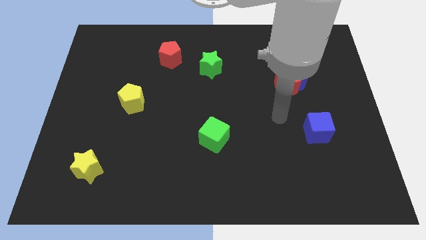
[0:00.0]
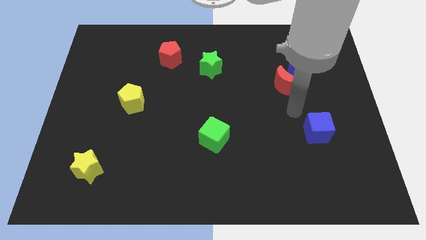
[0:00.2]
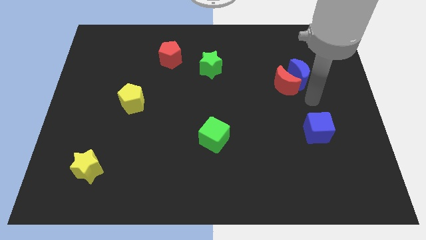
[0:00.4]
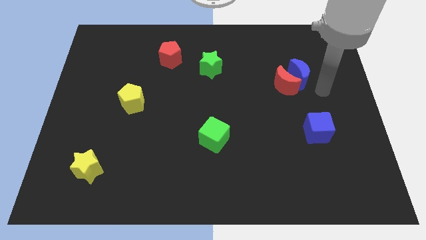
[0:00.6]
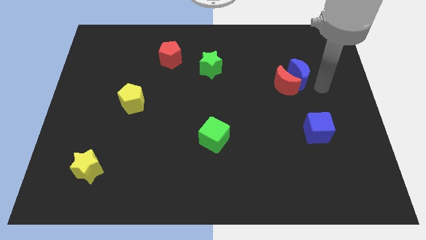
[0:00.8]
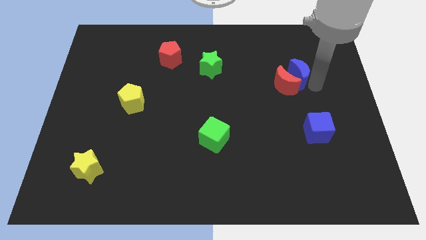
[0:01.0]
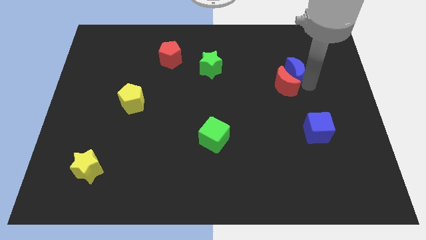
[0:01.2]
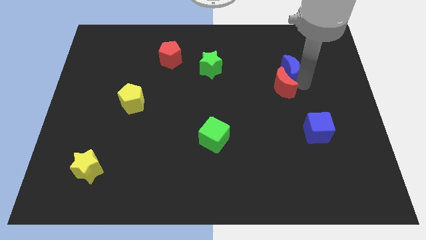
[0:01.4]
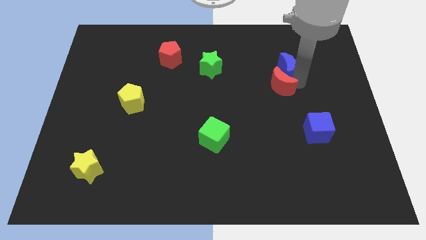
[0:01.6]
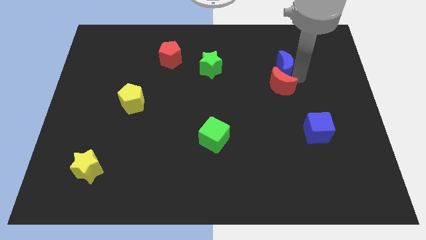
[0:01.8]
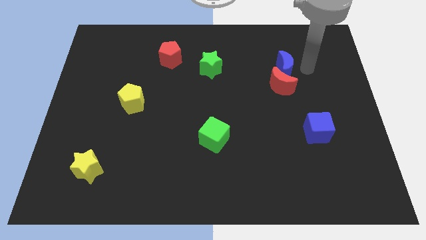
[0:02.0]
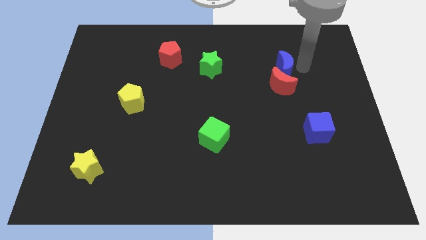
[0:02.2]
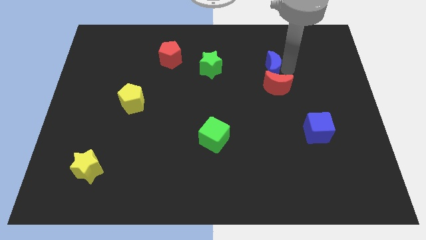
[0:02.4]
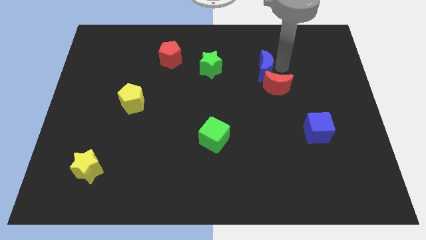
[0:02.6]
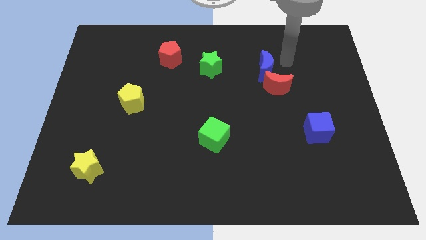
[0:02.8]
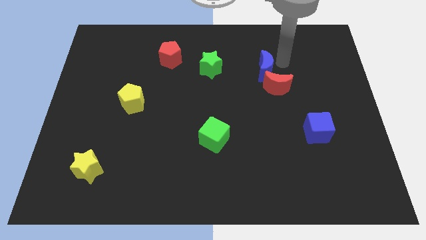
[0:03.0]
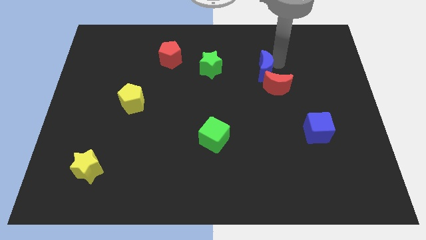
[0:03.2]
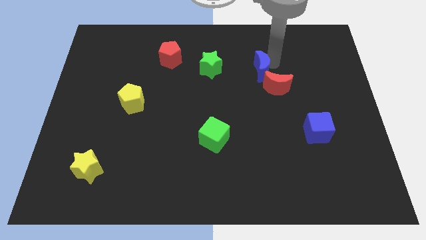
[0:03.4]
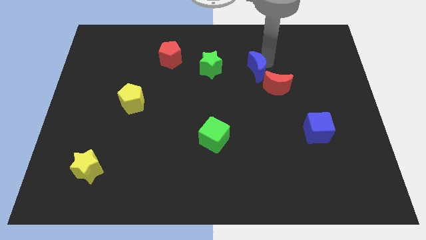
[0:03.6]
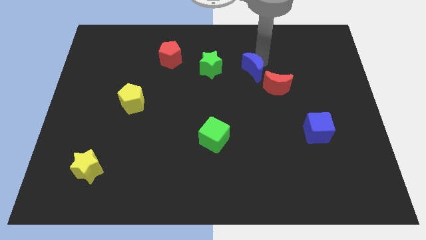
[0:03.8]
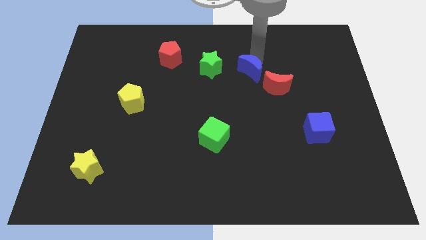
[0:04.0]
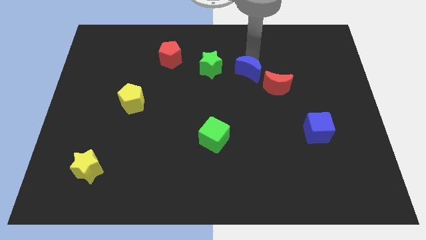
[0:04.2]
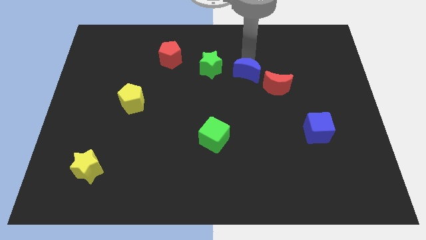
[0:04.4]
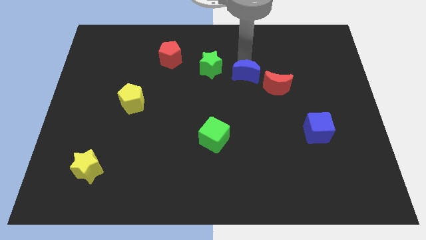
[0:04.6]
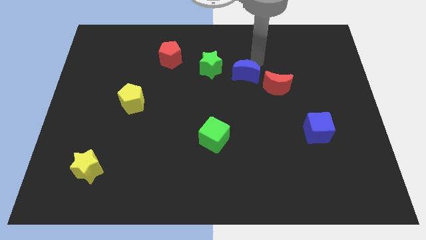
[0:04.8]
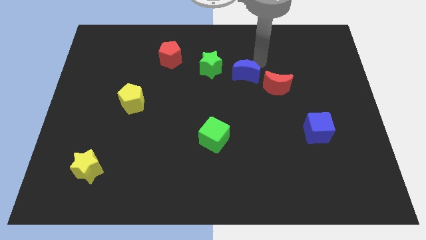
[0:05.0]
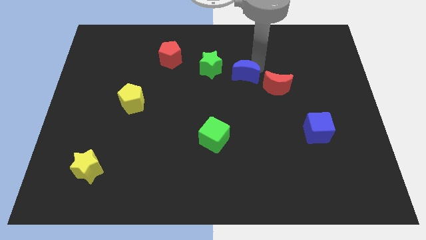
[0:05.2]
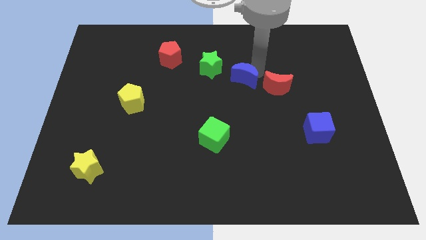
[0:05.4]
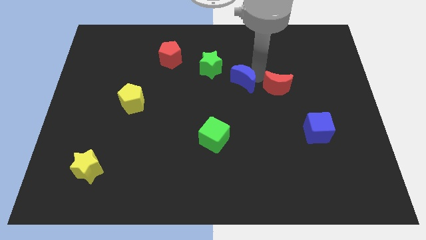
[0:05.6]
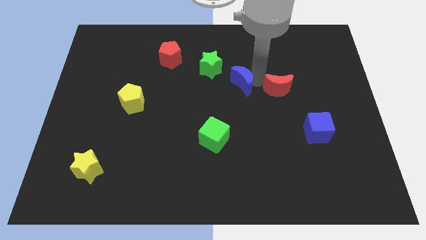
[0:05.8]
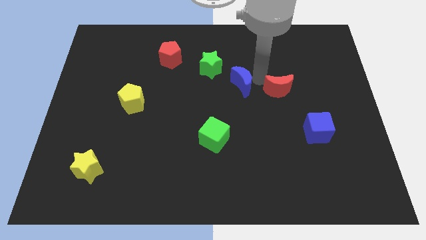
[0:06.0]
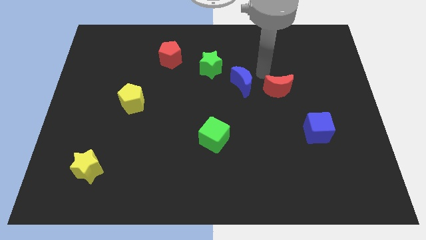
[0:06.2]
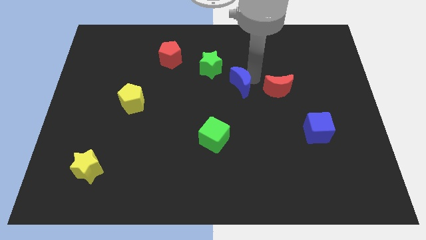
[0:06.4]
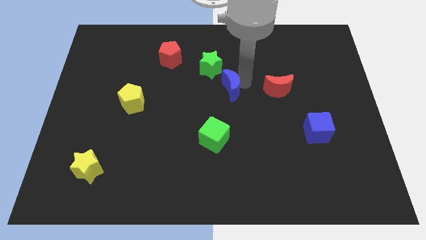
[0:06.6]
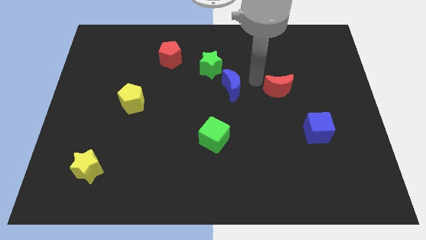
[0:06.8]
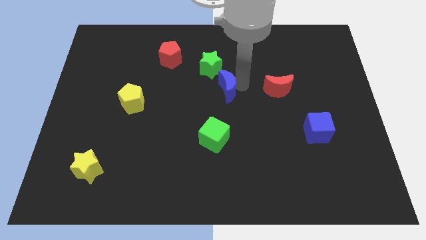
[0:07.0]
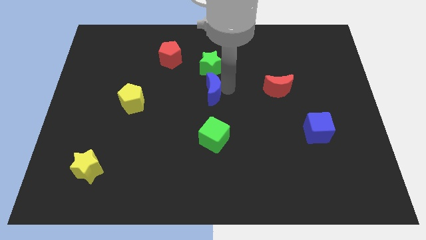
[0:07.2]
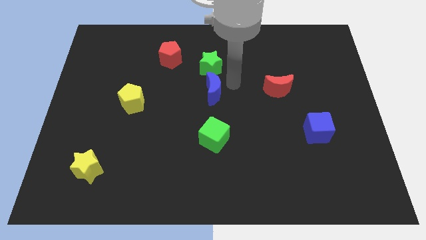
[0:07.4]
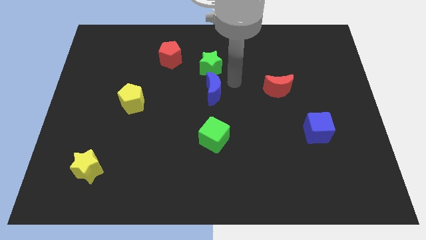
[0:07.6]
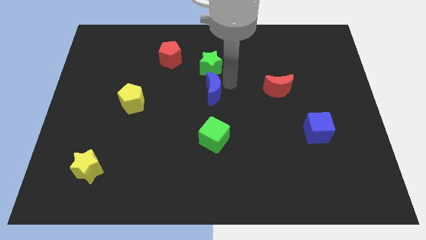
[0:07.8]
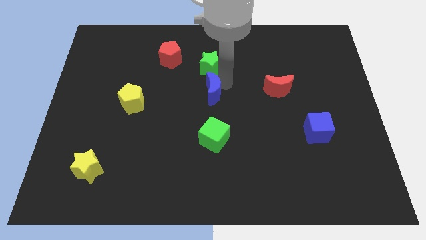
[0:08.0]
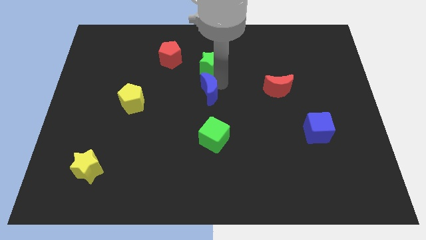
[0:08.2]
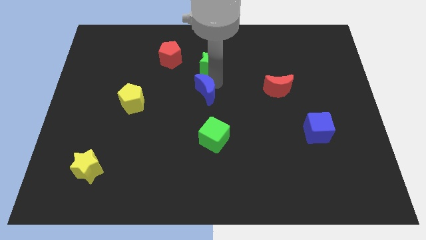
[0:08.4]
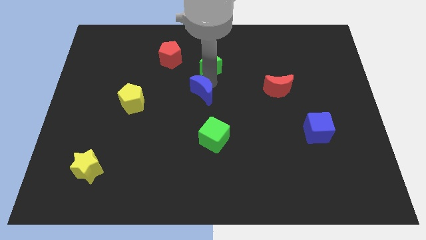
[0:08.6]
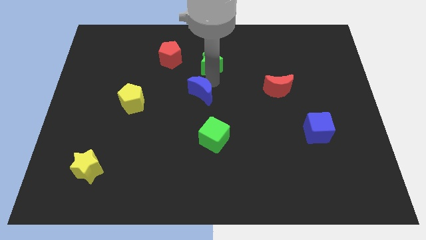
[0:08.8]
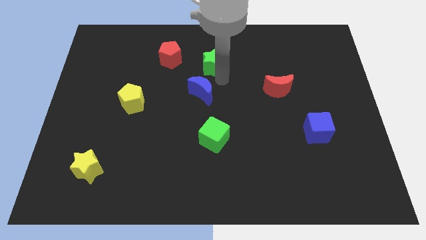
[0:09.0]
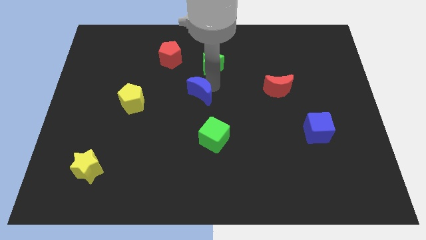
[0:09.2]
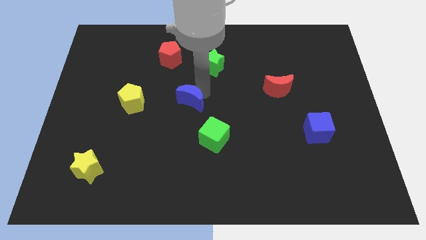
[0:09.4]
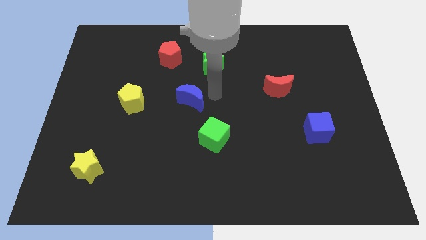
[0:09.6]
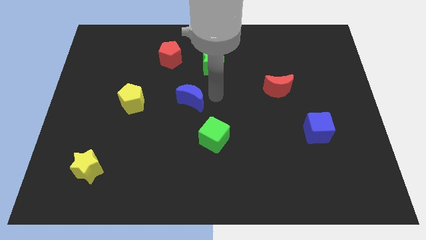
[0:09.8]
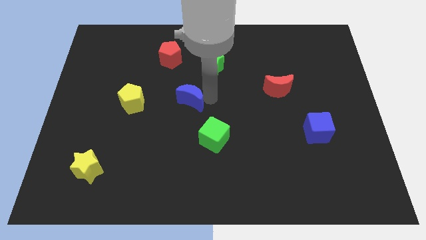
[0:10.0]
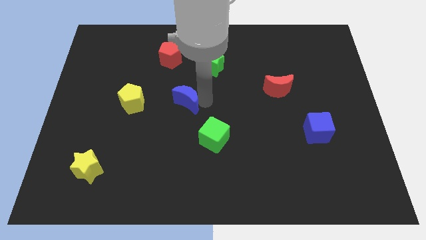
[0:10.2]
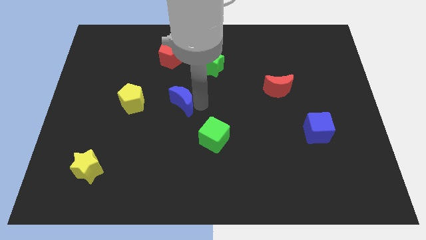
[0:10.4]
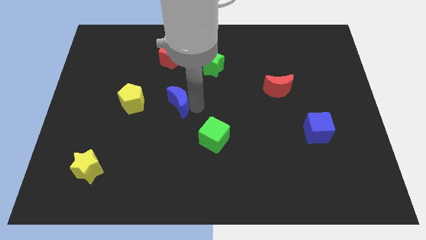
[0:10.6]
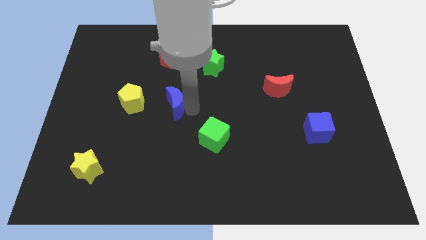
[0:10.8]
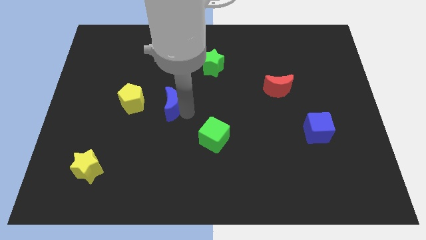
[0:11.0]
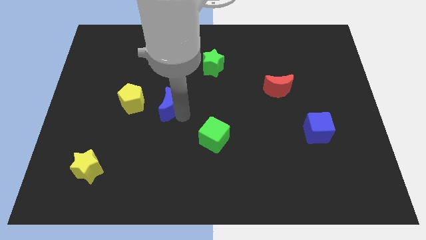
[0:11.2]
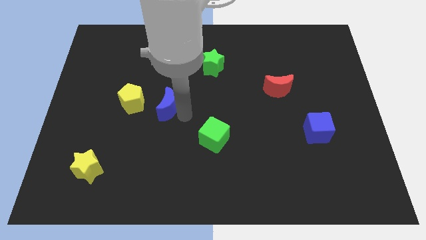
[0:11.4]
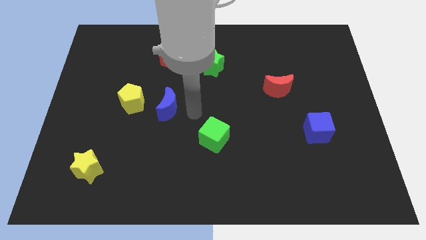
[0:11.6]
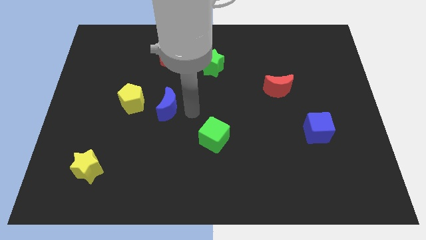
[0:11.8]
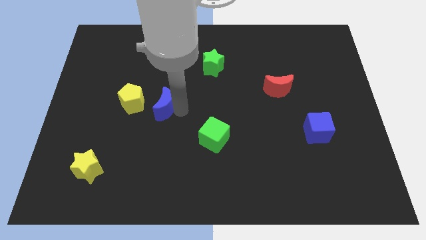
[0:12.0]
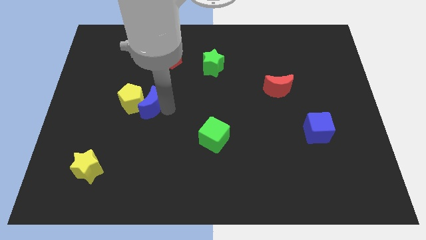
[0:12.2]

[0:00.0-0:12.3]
move the blue moon close to the yellow pentagon
